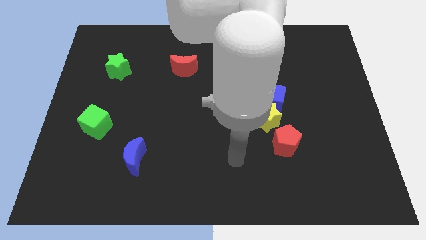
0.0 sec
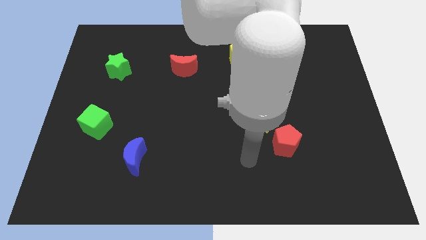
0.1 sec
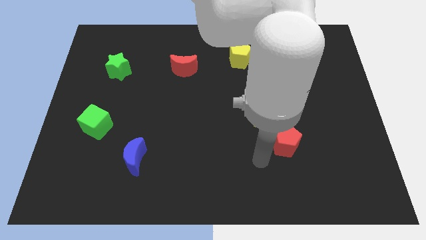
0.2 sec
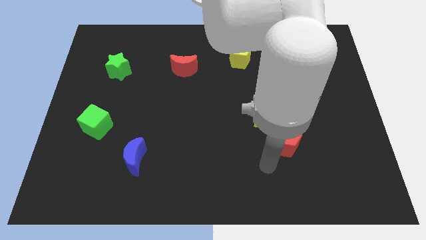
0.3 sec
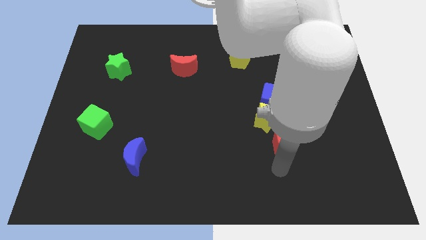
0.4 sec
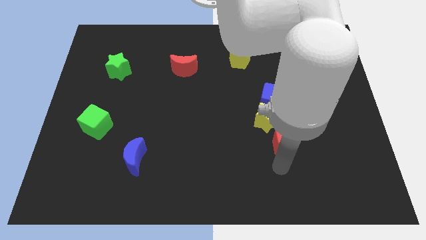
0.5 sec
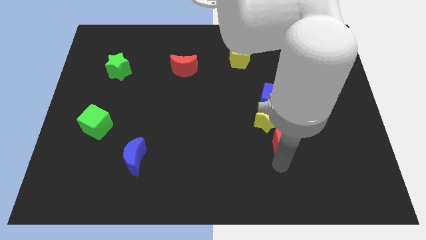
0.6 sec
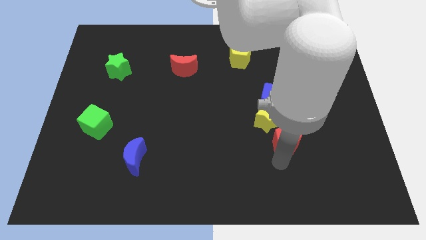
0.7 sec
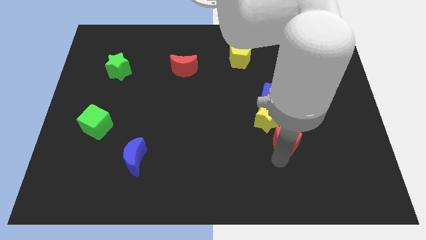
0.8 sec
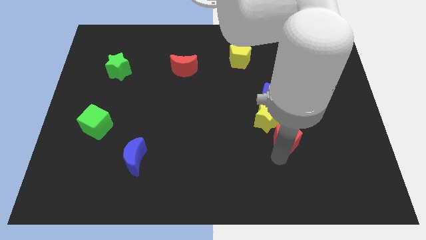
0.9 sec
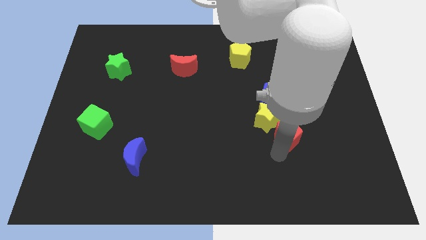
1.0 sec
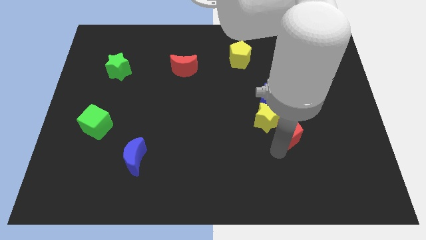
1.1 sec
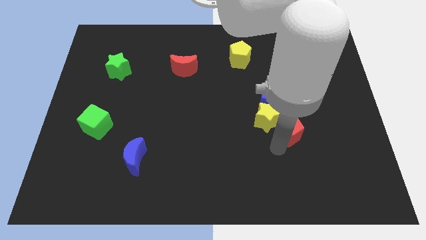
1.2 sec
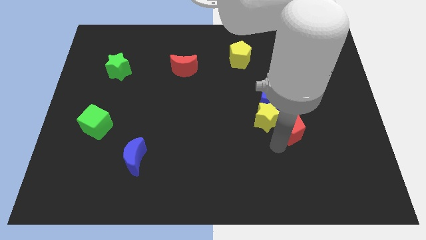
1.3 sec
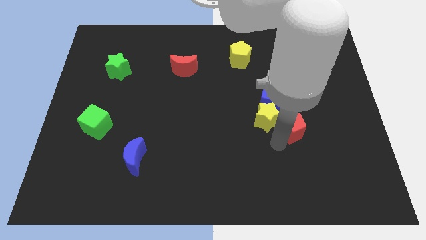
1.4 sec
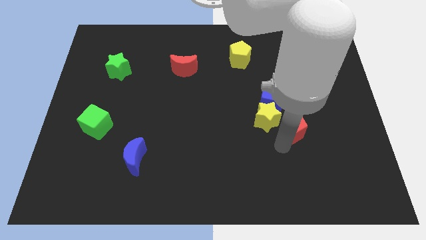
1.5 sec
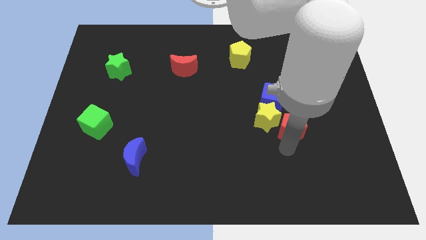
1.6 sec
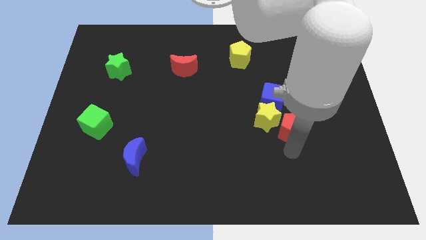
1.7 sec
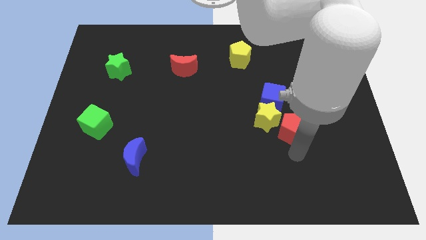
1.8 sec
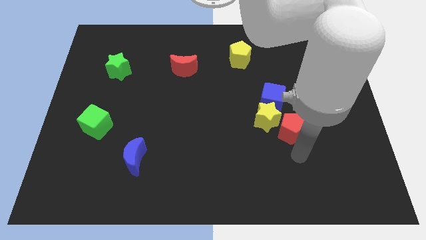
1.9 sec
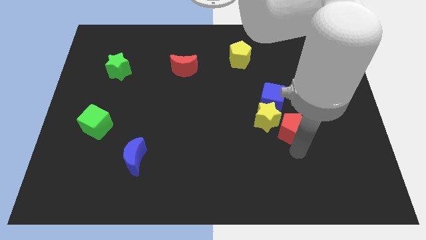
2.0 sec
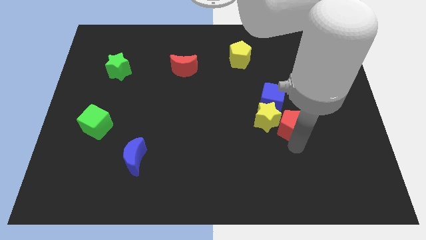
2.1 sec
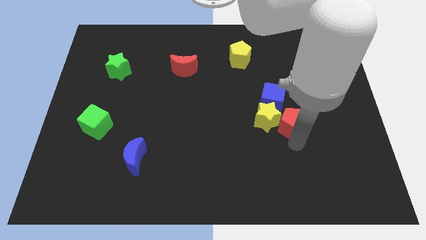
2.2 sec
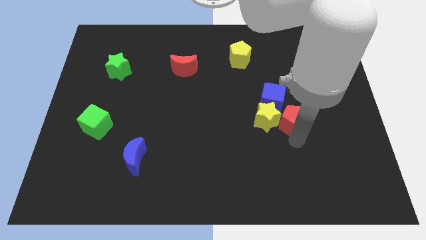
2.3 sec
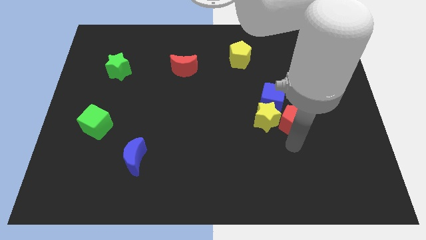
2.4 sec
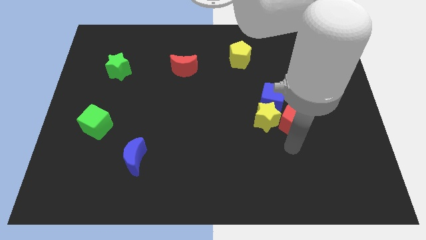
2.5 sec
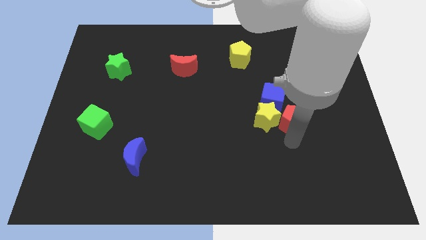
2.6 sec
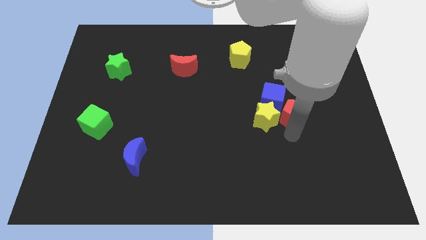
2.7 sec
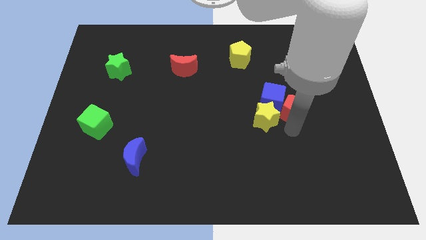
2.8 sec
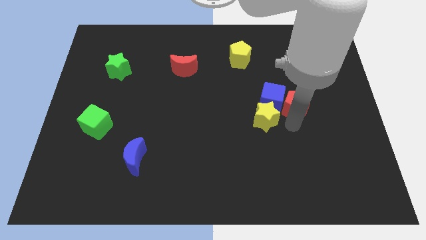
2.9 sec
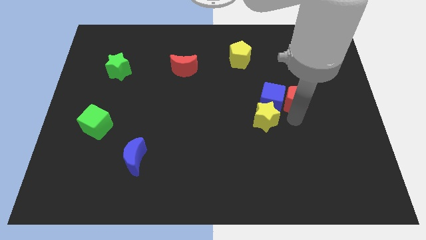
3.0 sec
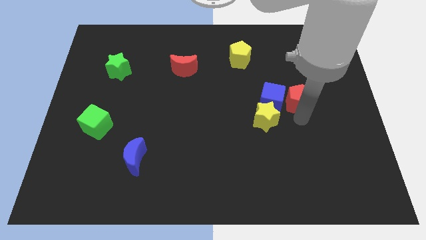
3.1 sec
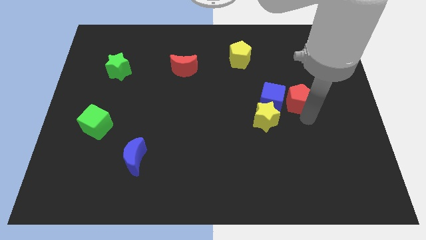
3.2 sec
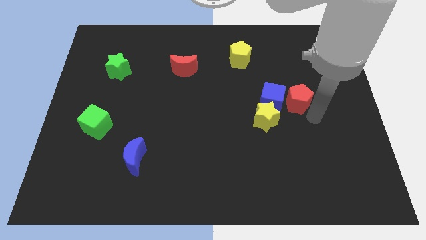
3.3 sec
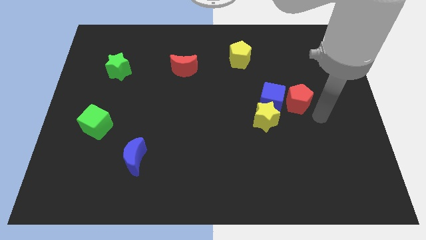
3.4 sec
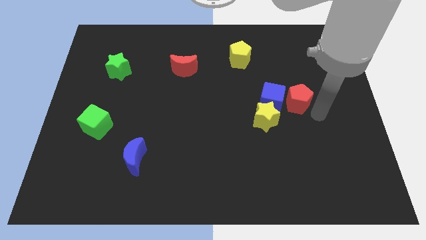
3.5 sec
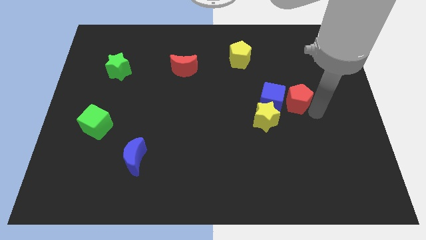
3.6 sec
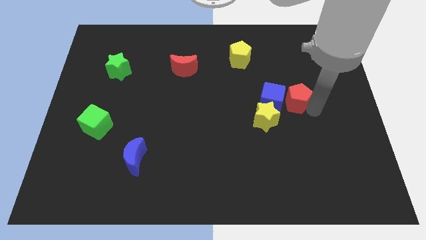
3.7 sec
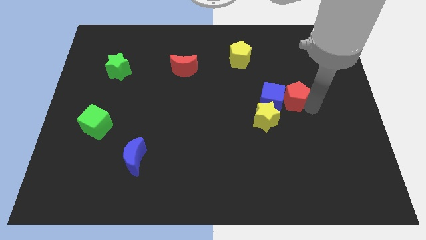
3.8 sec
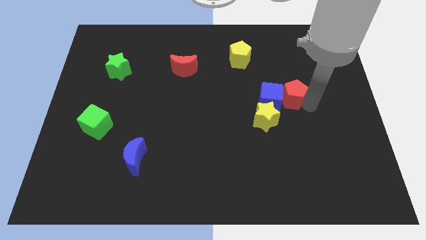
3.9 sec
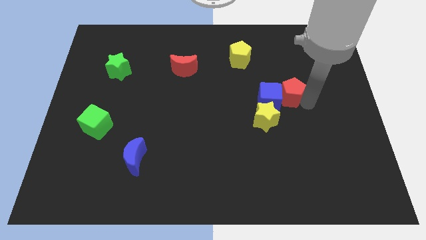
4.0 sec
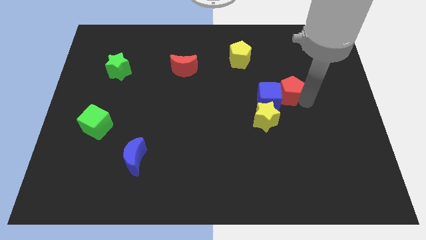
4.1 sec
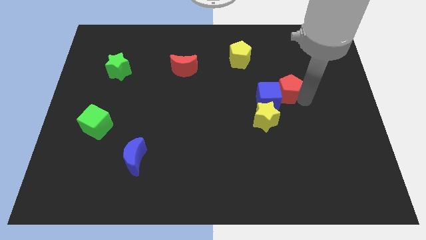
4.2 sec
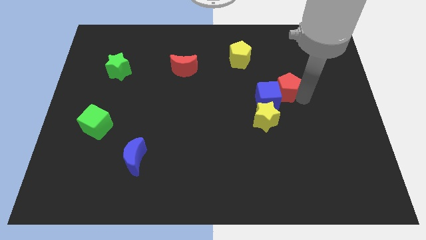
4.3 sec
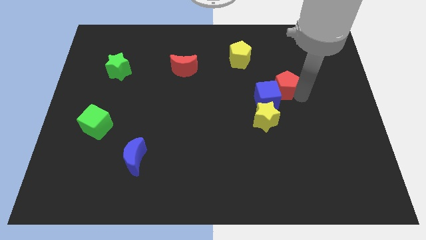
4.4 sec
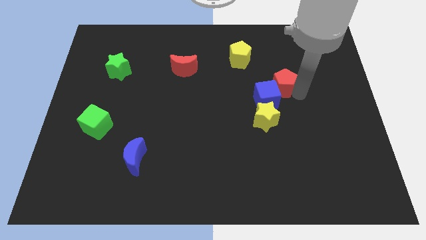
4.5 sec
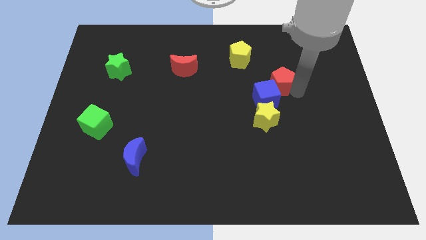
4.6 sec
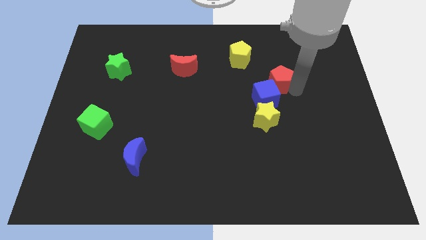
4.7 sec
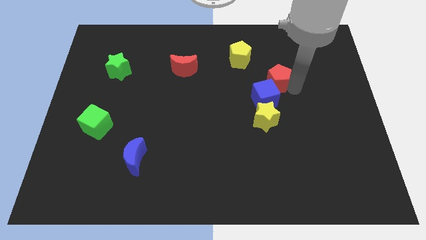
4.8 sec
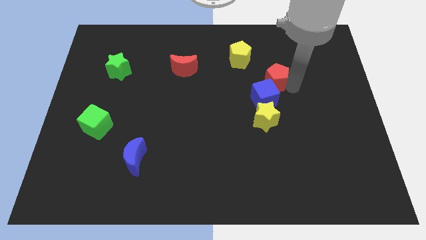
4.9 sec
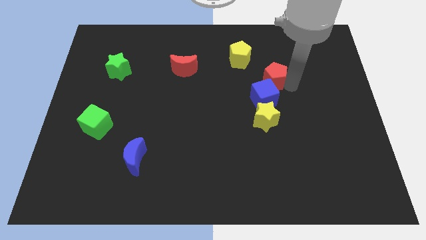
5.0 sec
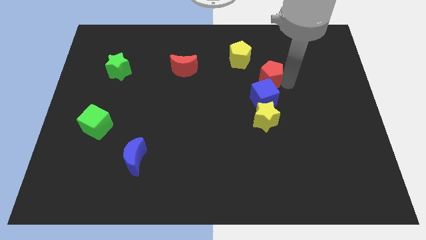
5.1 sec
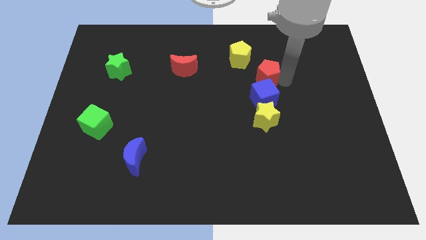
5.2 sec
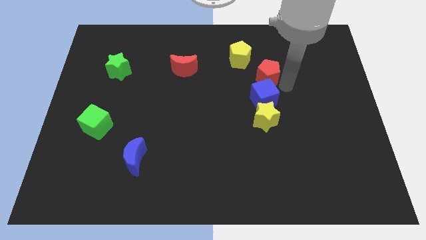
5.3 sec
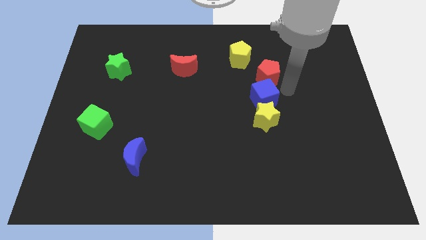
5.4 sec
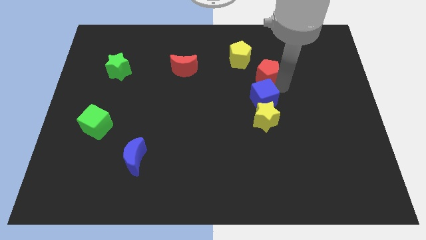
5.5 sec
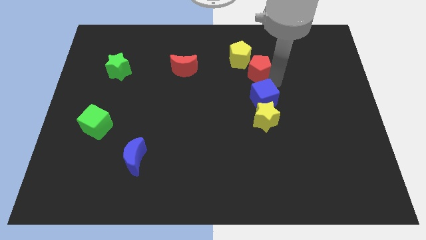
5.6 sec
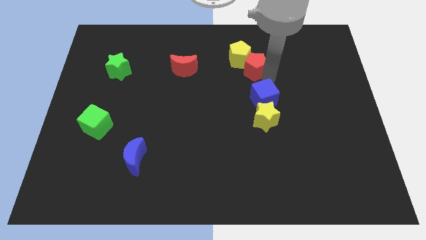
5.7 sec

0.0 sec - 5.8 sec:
move the red pentagon towards the yellow pentagon

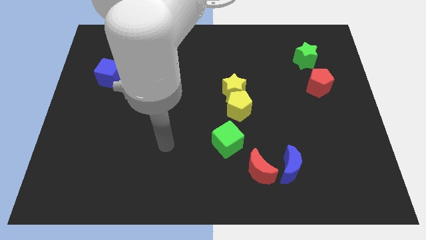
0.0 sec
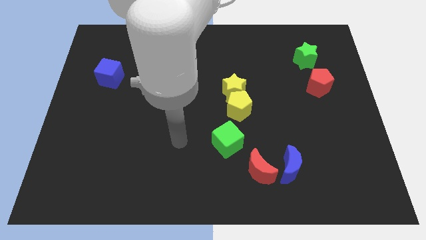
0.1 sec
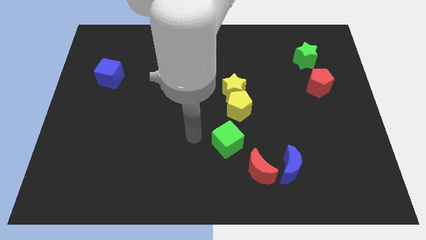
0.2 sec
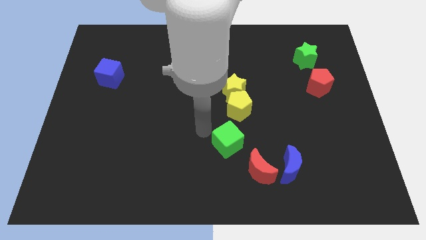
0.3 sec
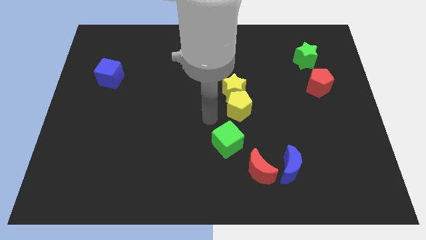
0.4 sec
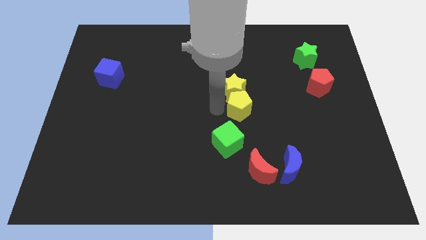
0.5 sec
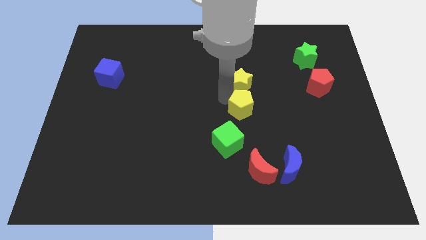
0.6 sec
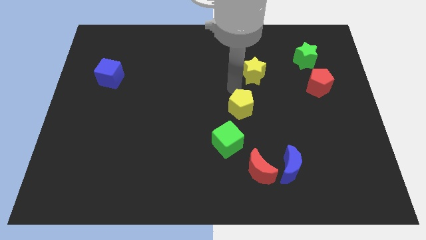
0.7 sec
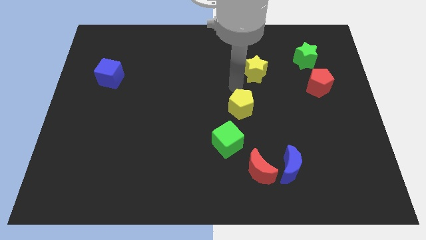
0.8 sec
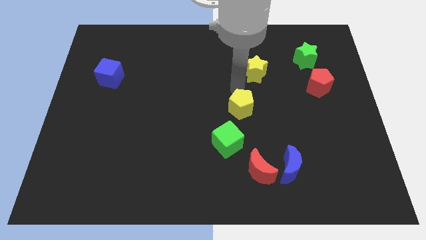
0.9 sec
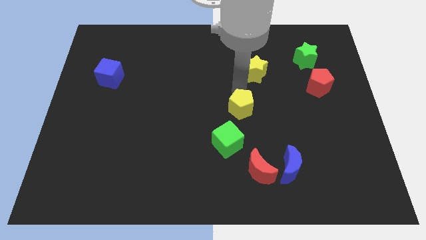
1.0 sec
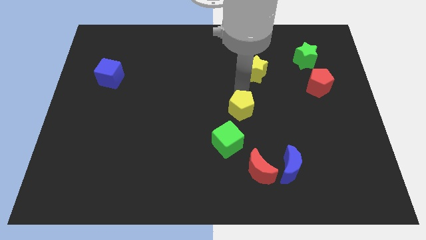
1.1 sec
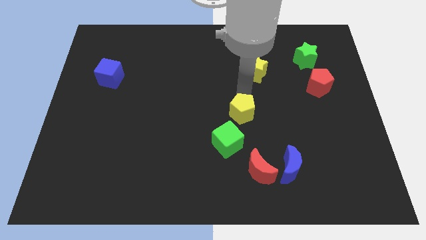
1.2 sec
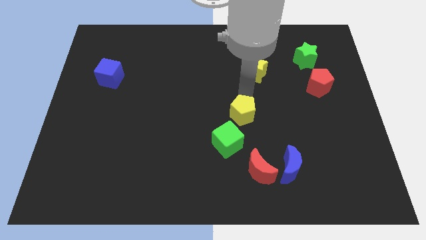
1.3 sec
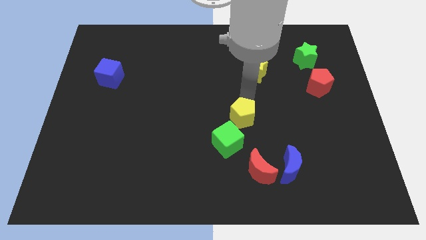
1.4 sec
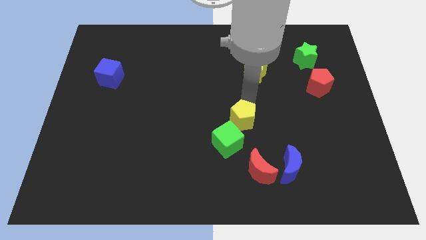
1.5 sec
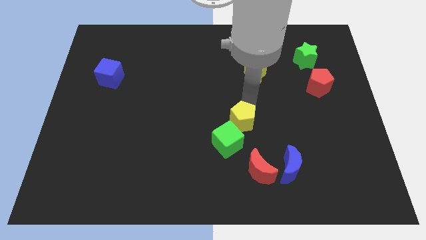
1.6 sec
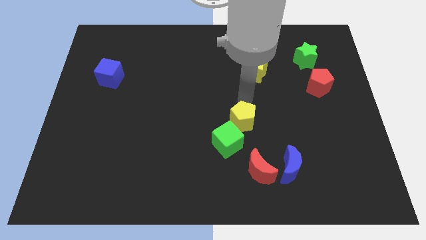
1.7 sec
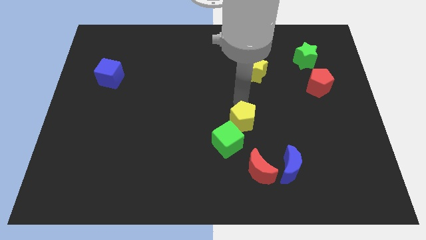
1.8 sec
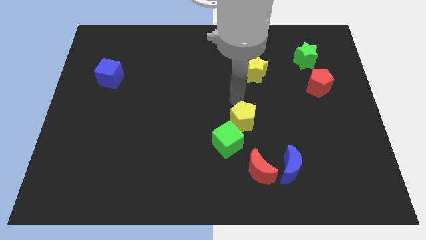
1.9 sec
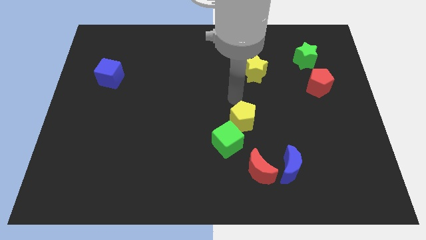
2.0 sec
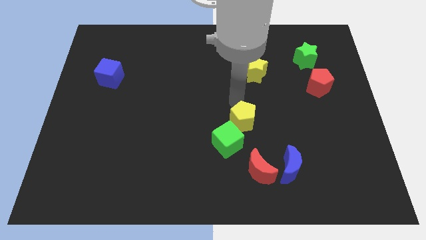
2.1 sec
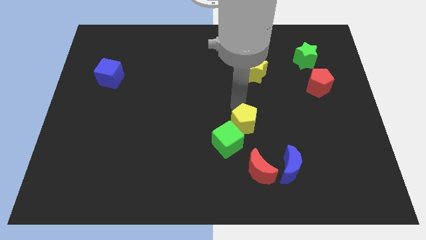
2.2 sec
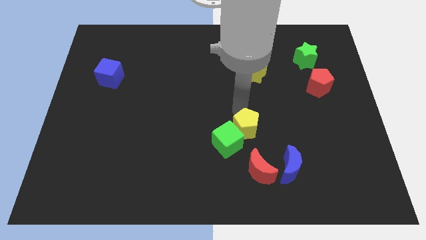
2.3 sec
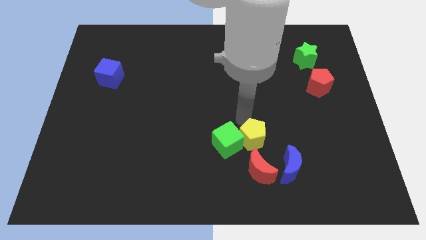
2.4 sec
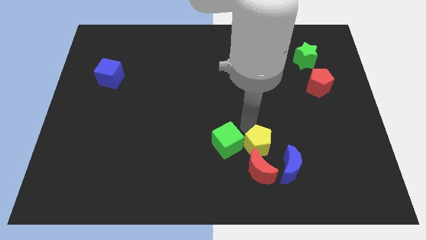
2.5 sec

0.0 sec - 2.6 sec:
move the yellow pentagon towards the red moon
